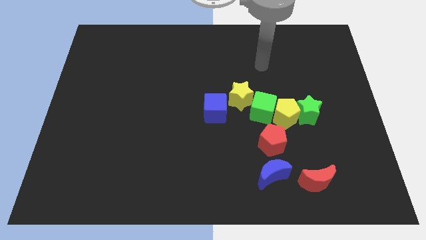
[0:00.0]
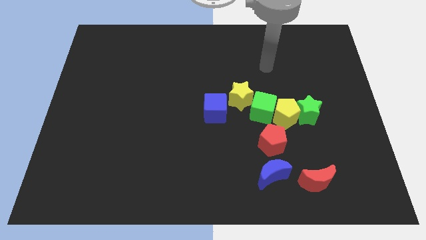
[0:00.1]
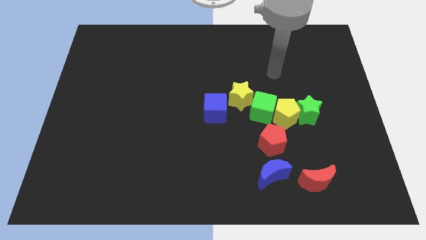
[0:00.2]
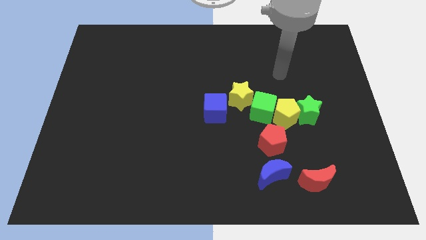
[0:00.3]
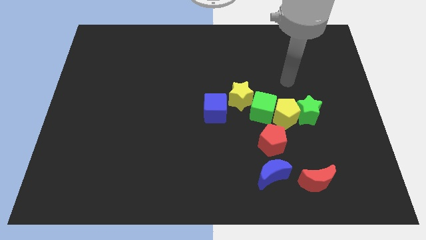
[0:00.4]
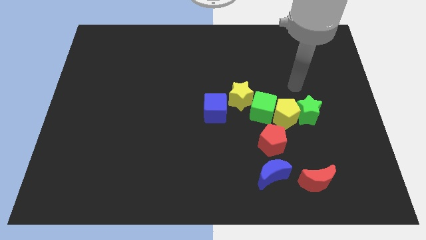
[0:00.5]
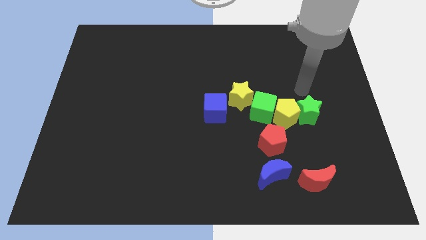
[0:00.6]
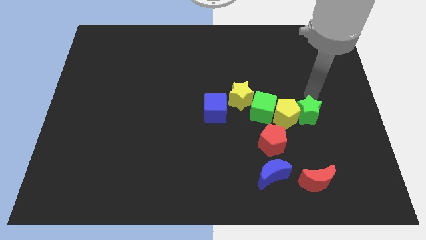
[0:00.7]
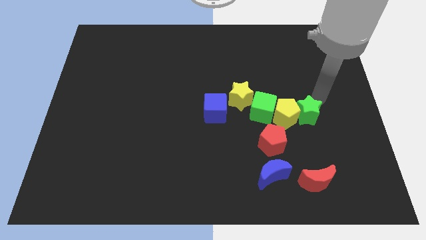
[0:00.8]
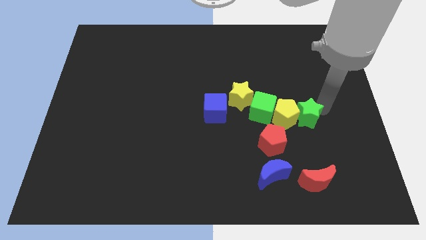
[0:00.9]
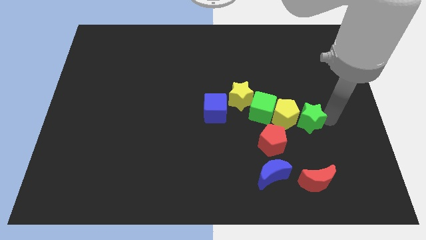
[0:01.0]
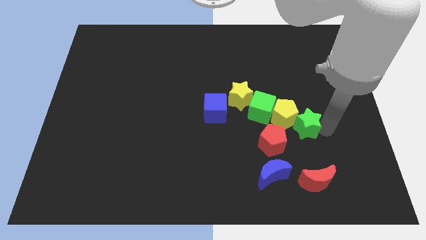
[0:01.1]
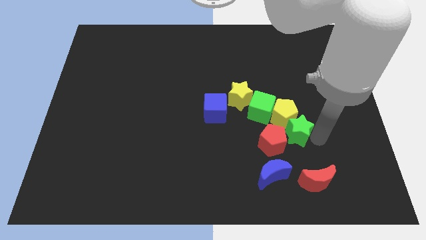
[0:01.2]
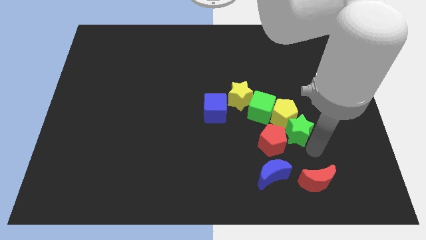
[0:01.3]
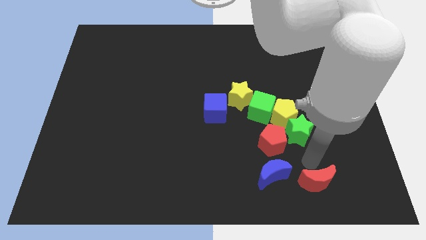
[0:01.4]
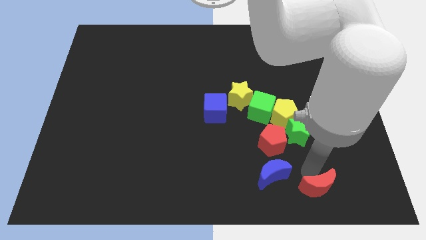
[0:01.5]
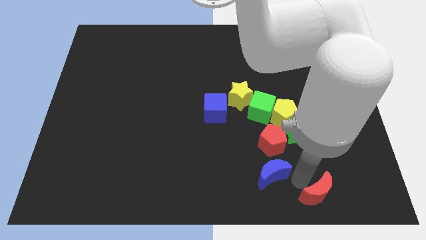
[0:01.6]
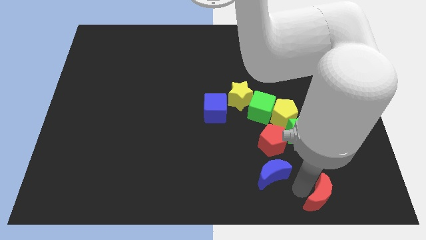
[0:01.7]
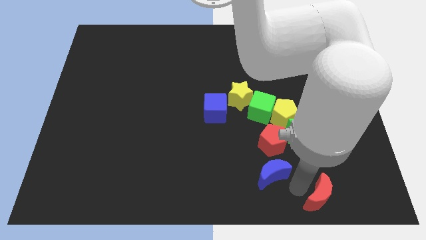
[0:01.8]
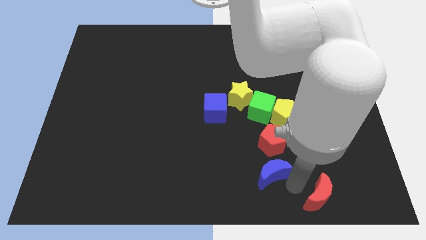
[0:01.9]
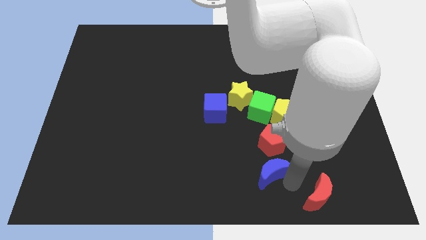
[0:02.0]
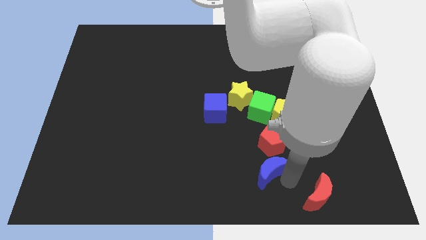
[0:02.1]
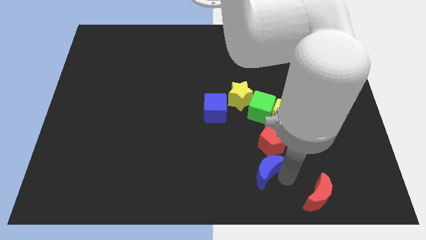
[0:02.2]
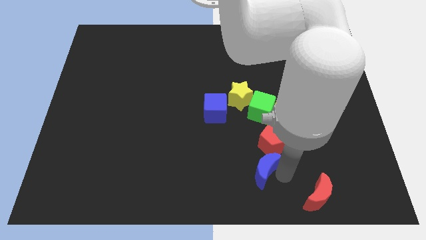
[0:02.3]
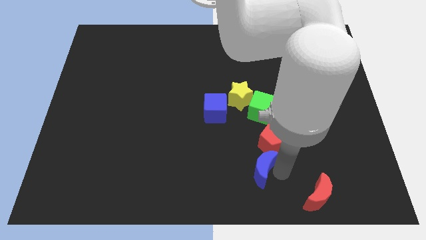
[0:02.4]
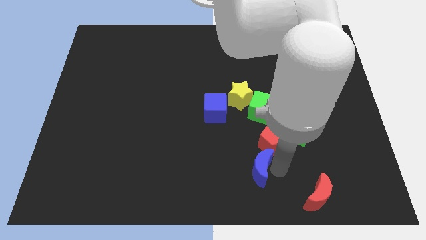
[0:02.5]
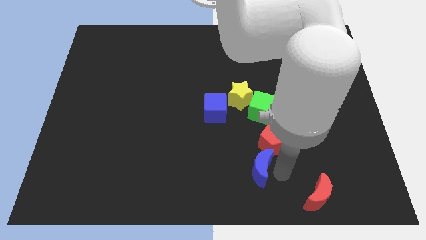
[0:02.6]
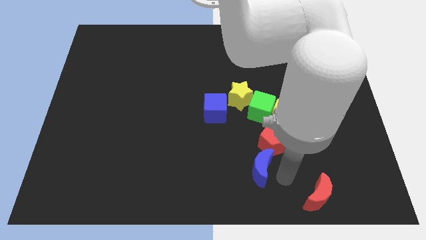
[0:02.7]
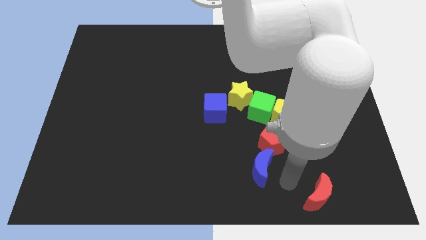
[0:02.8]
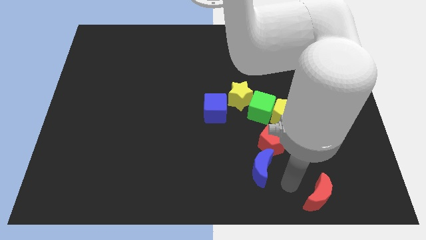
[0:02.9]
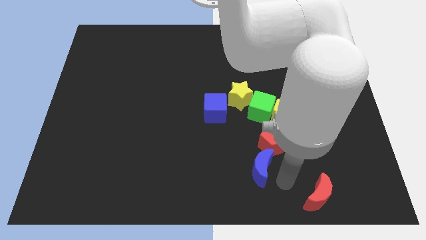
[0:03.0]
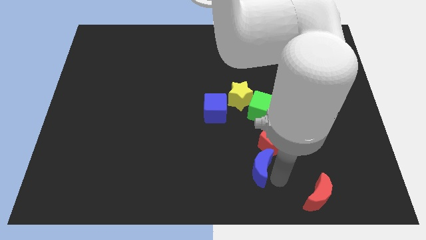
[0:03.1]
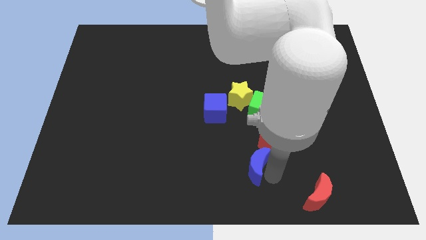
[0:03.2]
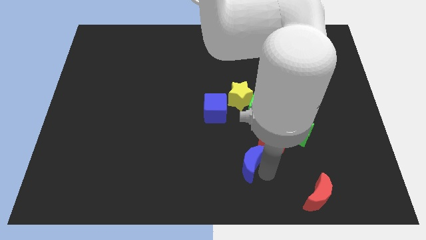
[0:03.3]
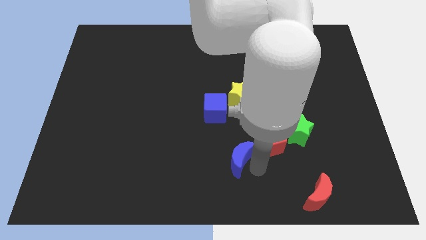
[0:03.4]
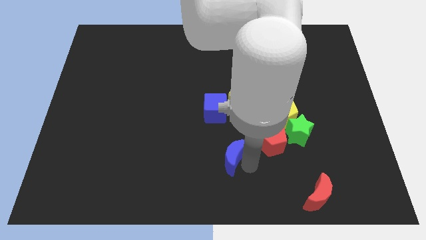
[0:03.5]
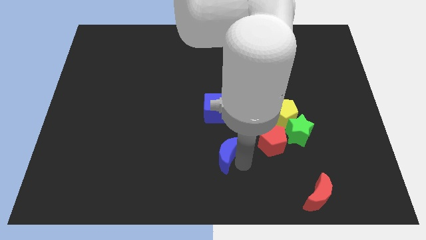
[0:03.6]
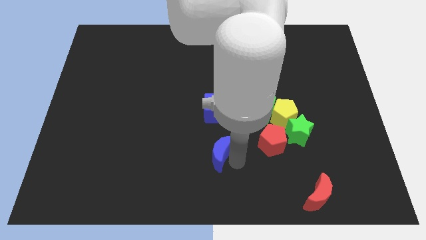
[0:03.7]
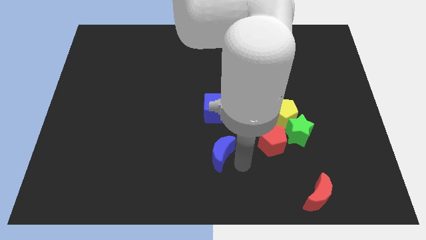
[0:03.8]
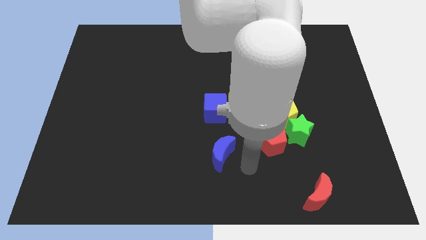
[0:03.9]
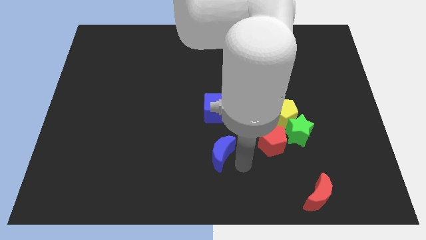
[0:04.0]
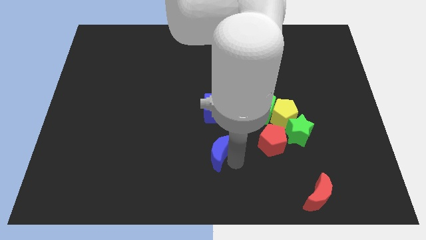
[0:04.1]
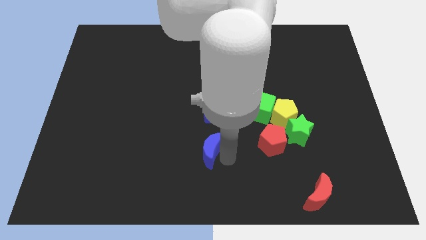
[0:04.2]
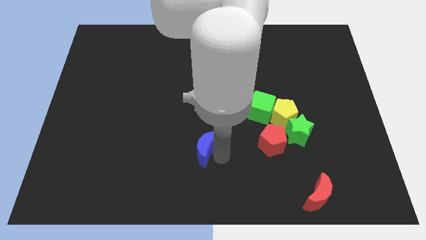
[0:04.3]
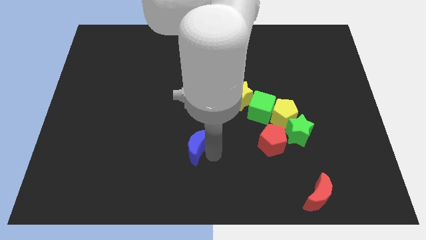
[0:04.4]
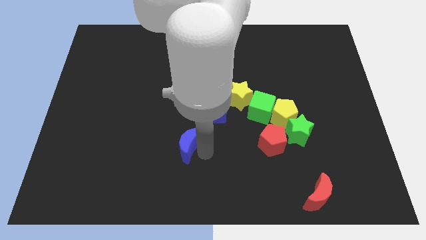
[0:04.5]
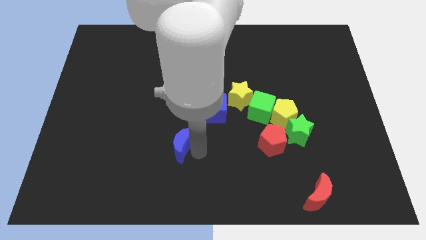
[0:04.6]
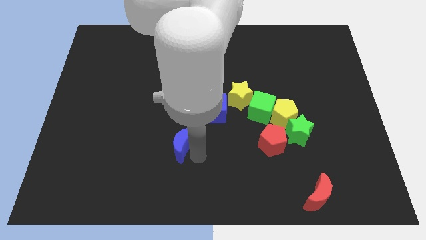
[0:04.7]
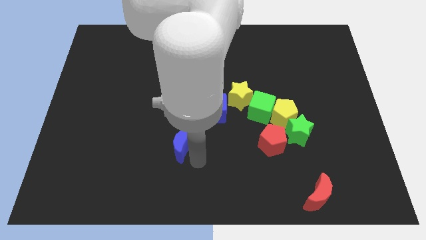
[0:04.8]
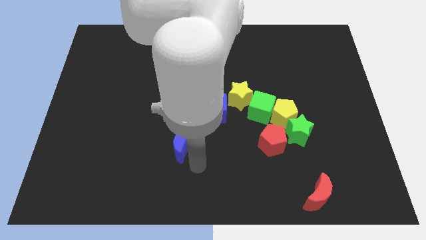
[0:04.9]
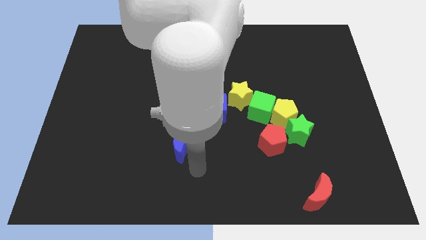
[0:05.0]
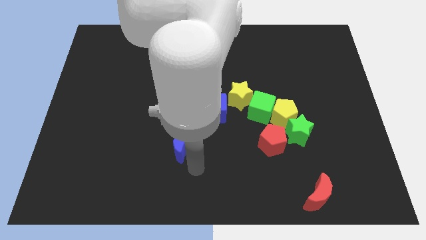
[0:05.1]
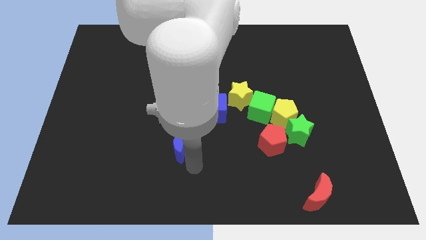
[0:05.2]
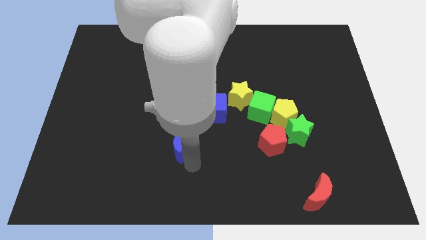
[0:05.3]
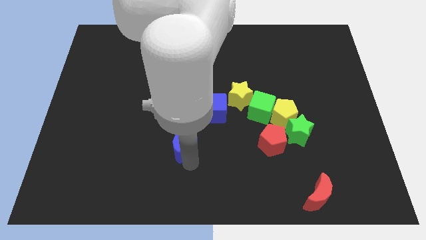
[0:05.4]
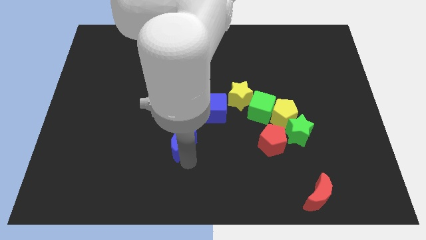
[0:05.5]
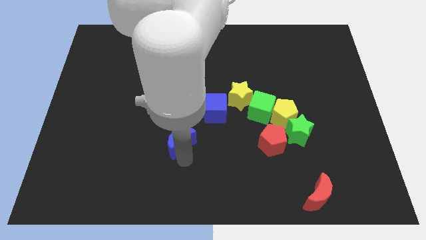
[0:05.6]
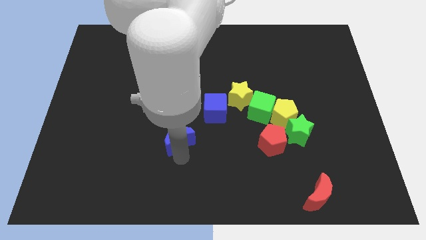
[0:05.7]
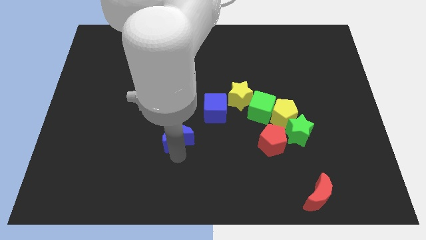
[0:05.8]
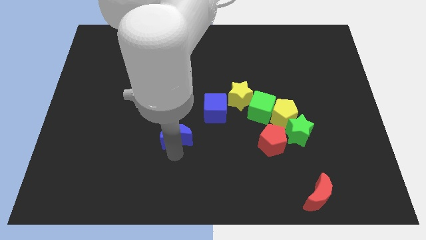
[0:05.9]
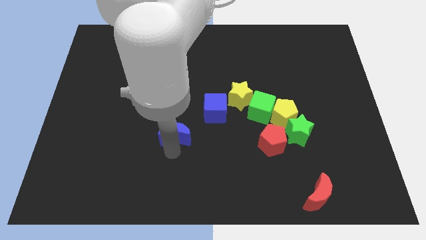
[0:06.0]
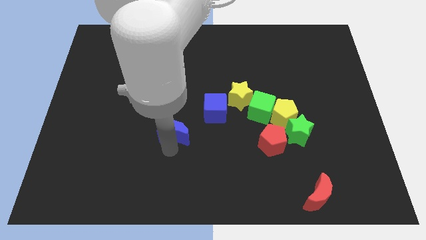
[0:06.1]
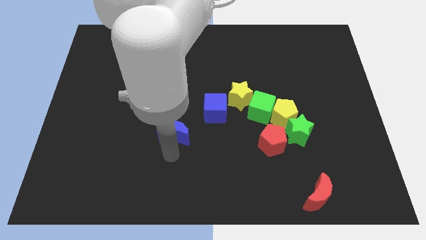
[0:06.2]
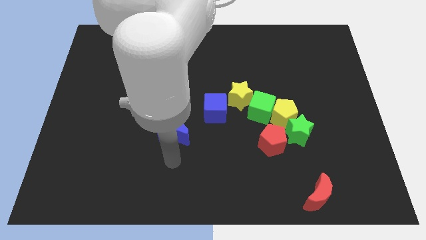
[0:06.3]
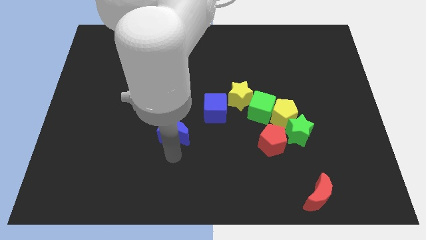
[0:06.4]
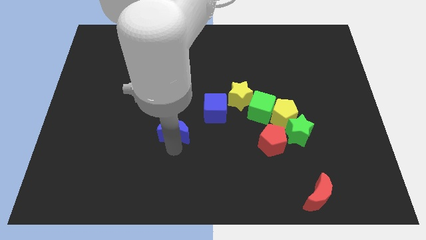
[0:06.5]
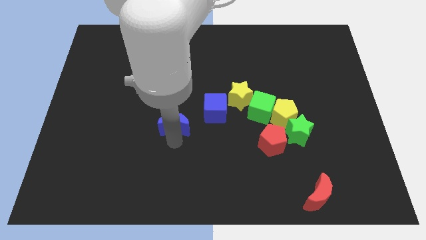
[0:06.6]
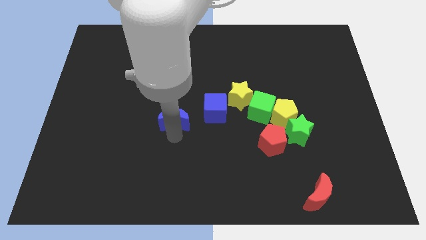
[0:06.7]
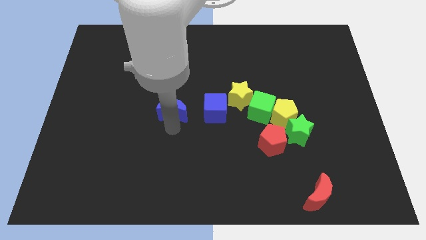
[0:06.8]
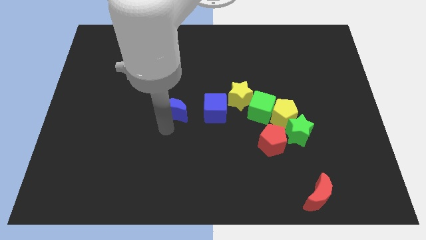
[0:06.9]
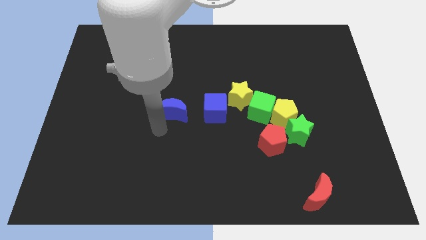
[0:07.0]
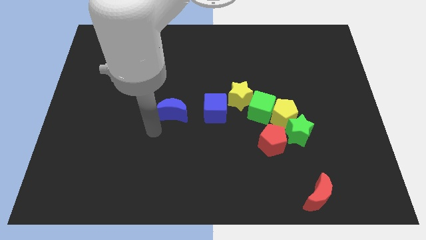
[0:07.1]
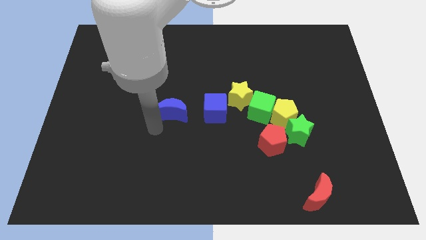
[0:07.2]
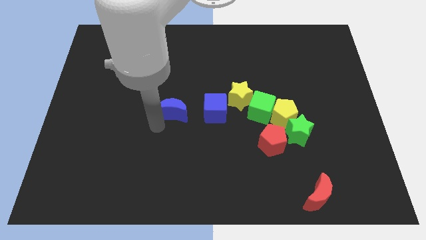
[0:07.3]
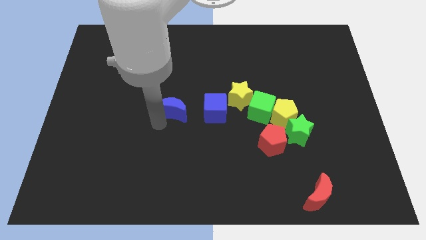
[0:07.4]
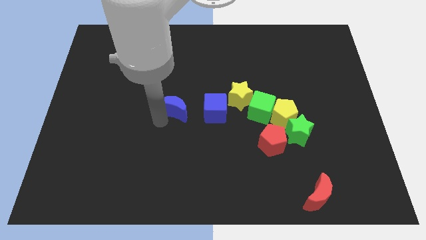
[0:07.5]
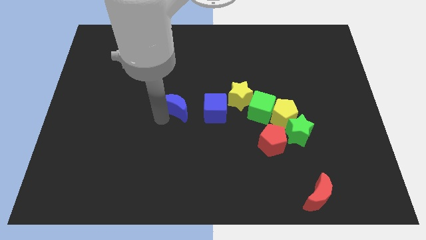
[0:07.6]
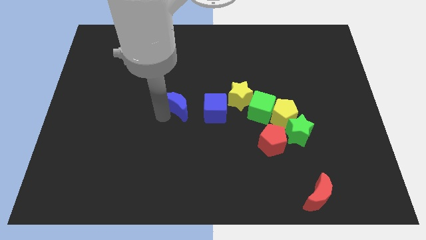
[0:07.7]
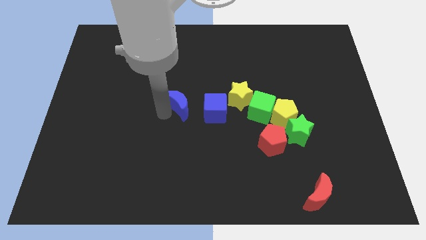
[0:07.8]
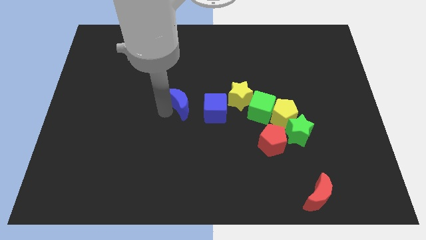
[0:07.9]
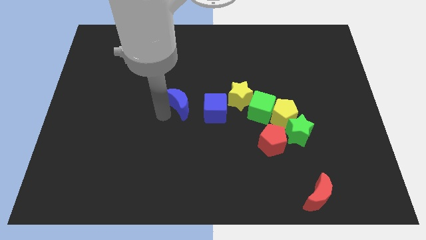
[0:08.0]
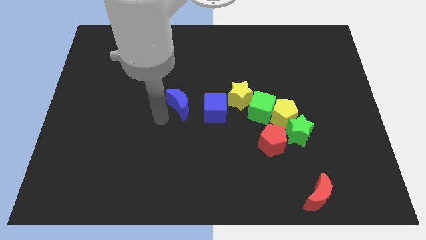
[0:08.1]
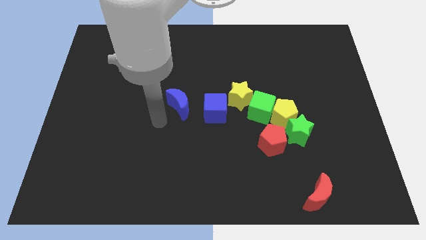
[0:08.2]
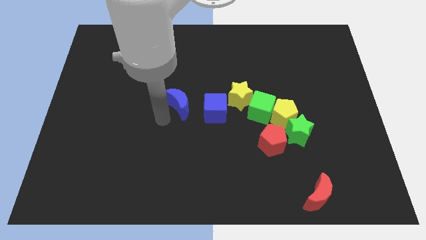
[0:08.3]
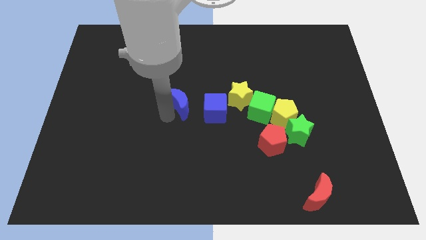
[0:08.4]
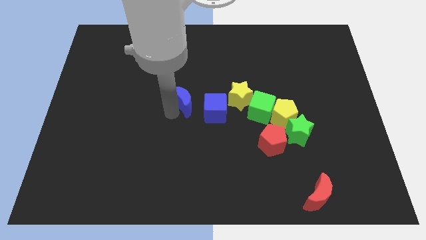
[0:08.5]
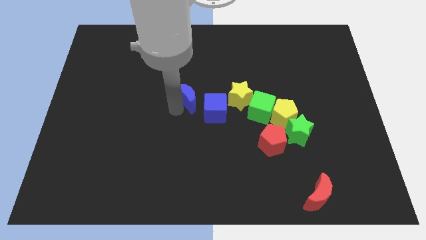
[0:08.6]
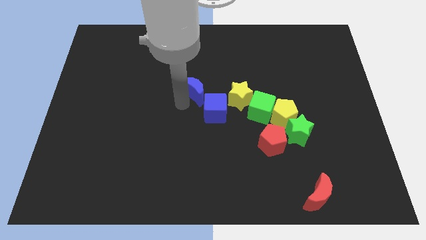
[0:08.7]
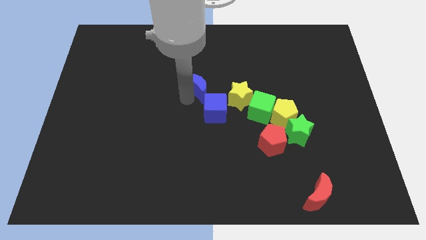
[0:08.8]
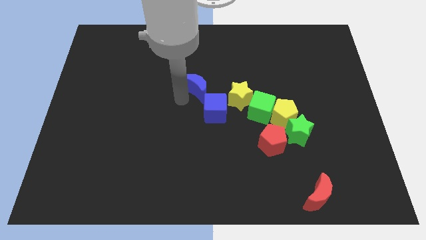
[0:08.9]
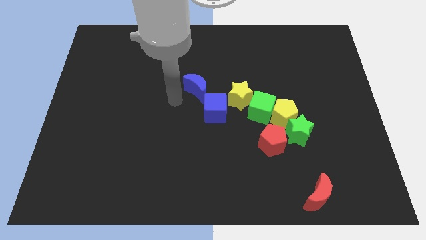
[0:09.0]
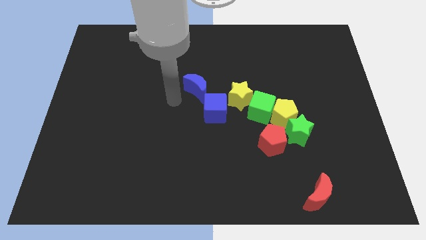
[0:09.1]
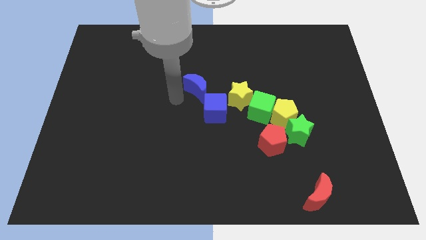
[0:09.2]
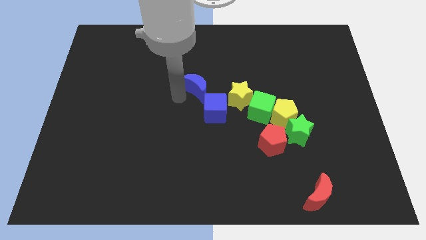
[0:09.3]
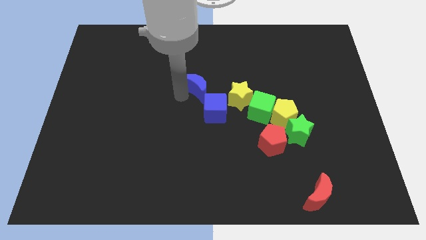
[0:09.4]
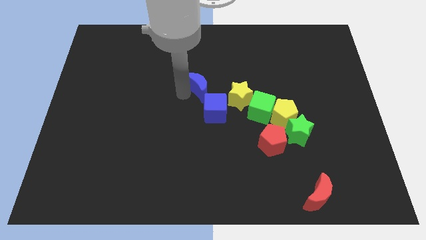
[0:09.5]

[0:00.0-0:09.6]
slide the blue moon diagonally up and to the left of the yellow star
